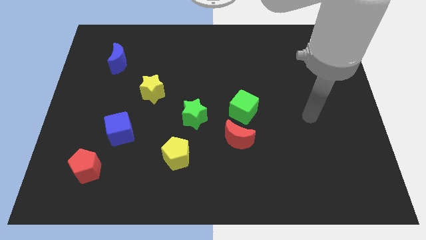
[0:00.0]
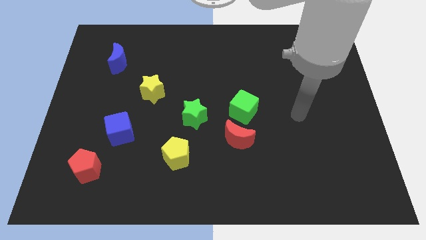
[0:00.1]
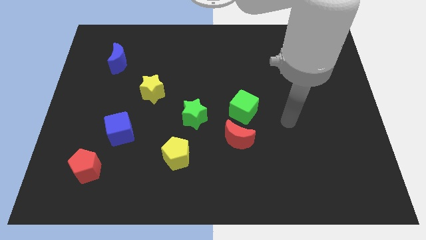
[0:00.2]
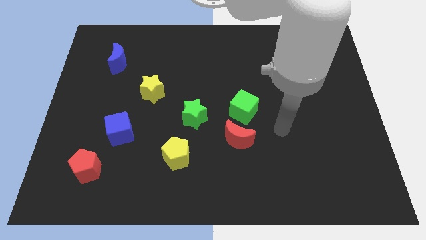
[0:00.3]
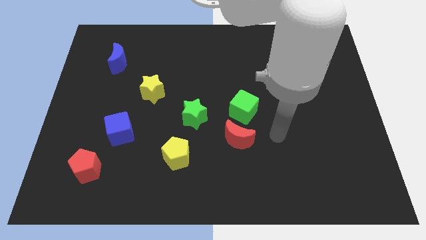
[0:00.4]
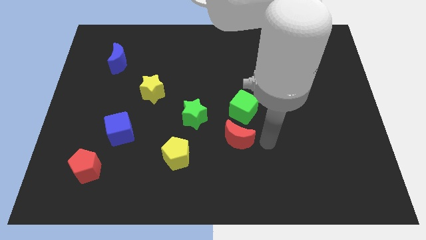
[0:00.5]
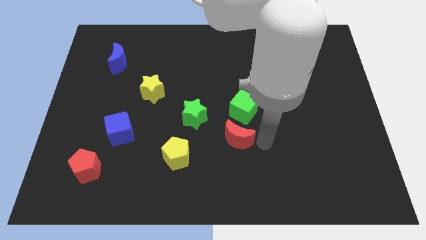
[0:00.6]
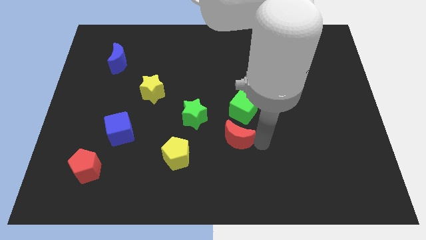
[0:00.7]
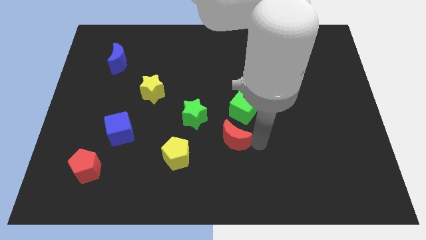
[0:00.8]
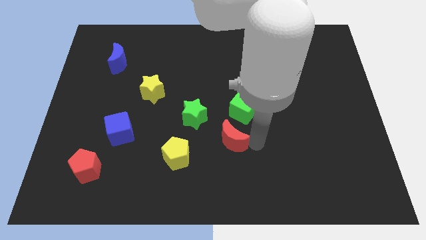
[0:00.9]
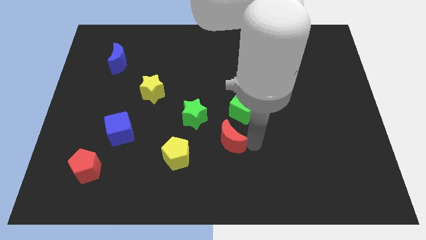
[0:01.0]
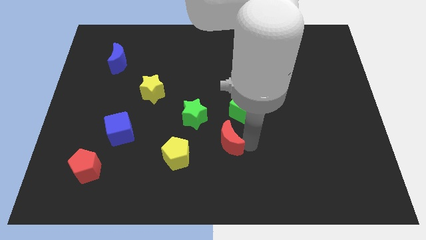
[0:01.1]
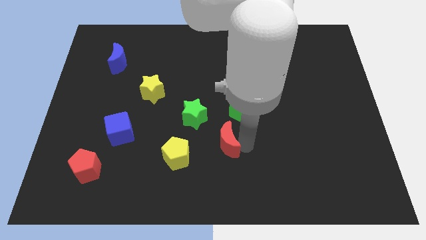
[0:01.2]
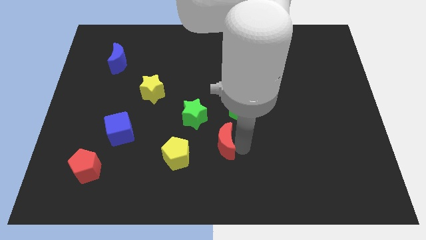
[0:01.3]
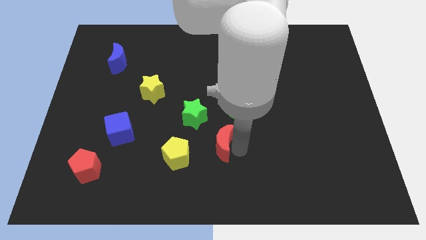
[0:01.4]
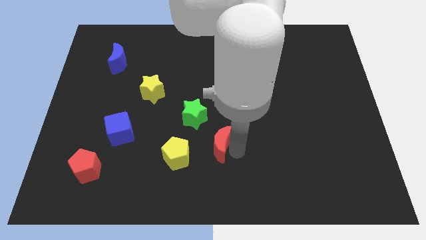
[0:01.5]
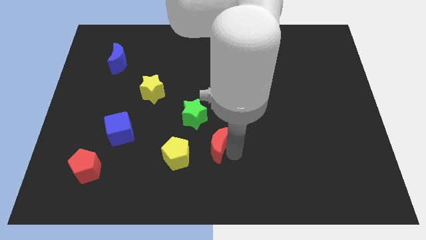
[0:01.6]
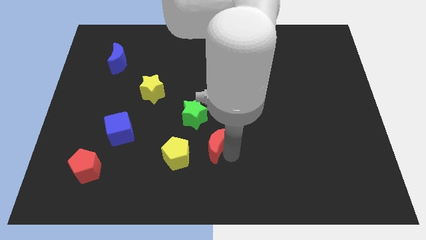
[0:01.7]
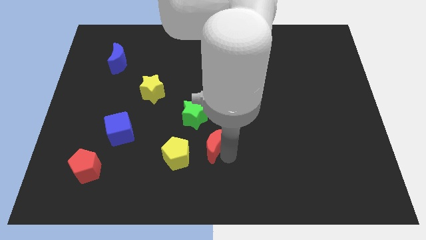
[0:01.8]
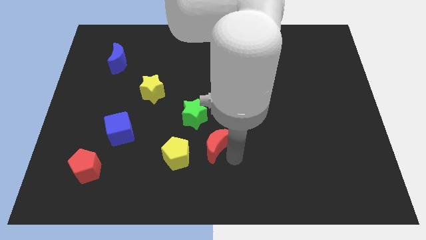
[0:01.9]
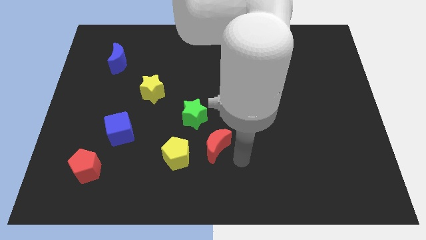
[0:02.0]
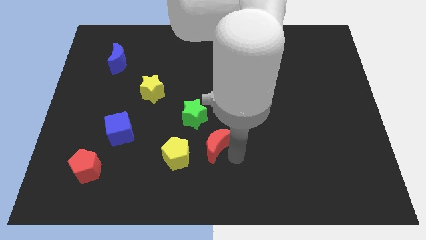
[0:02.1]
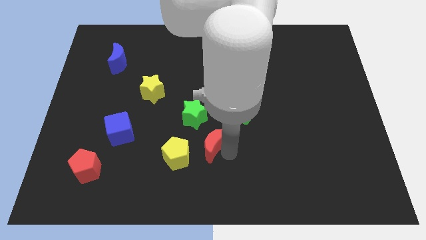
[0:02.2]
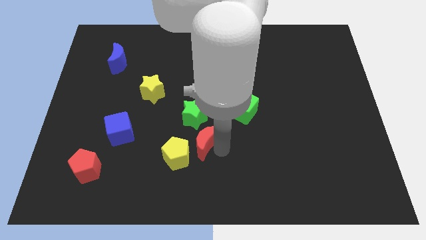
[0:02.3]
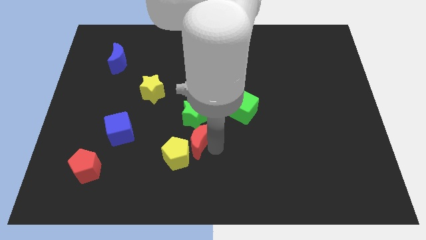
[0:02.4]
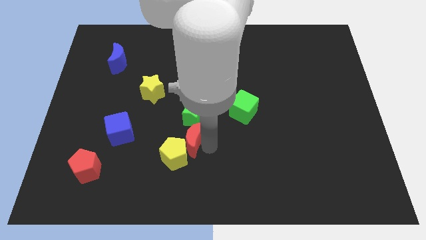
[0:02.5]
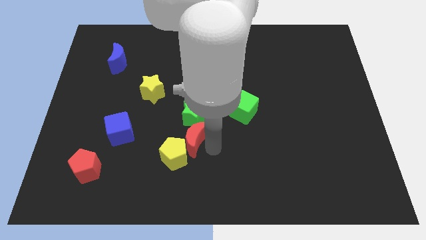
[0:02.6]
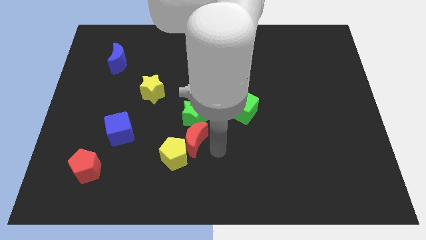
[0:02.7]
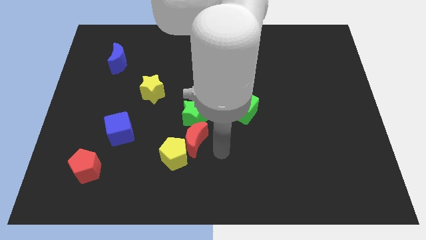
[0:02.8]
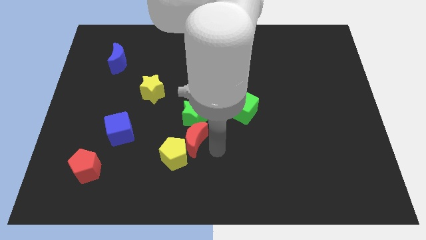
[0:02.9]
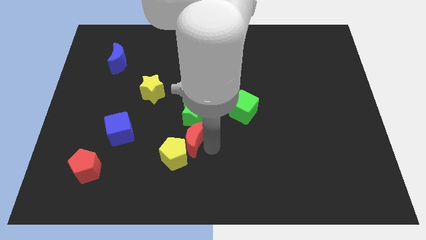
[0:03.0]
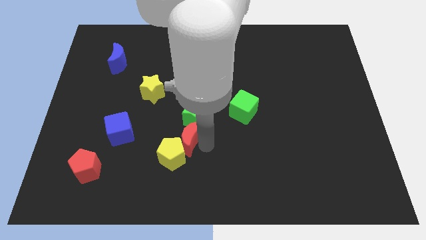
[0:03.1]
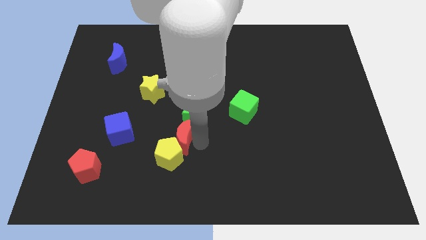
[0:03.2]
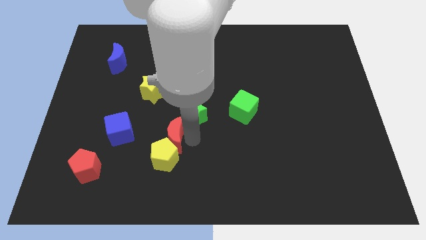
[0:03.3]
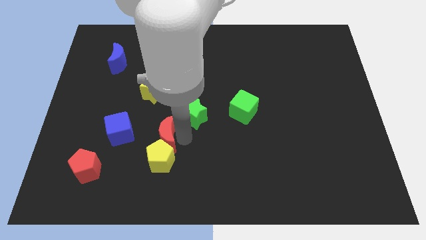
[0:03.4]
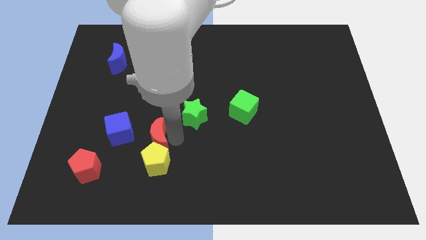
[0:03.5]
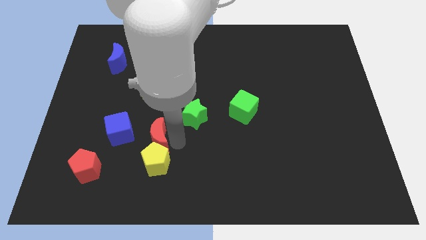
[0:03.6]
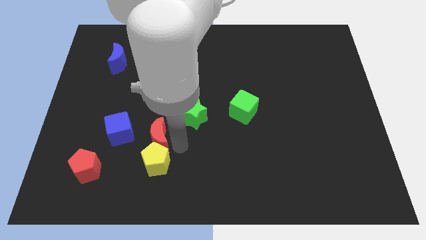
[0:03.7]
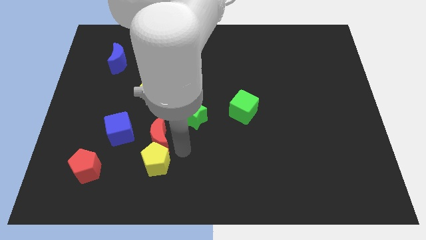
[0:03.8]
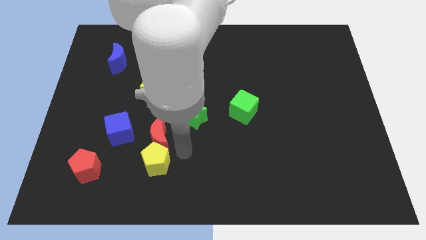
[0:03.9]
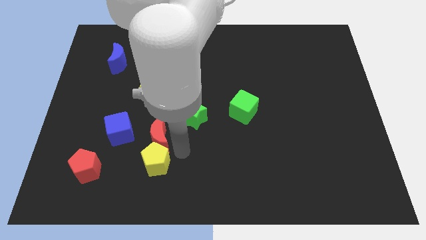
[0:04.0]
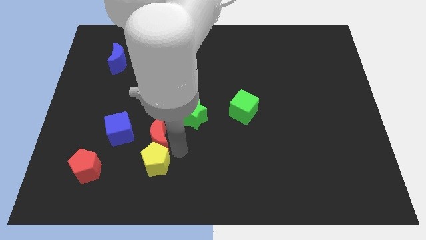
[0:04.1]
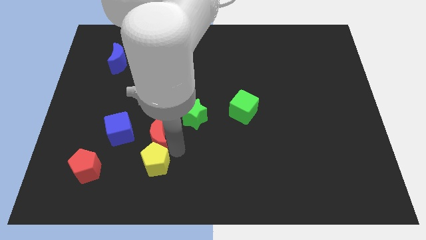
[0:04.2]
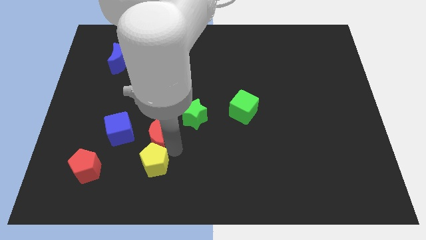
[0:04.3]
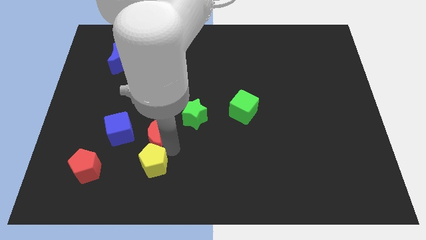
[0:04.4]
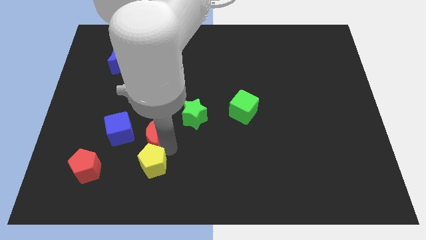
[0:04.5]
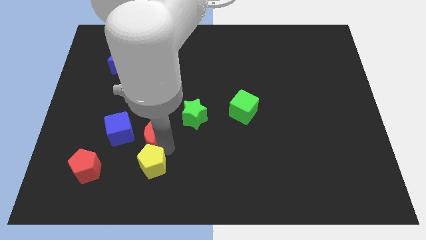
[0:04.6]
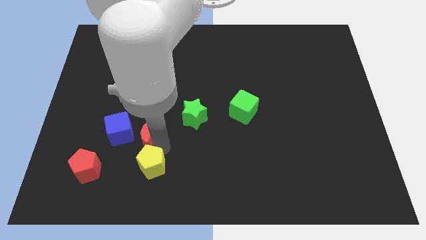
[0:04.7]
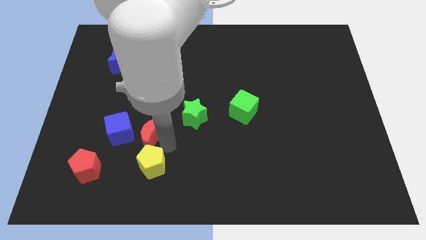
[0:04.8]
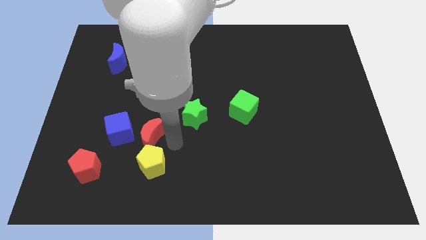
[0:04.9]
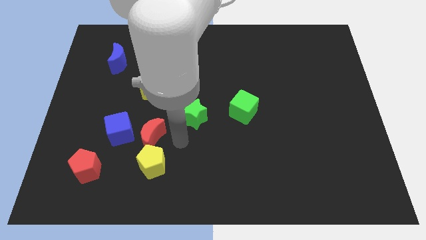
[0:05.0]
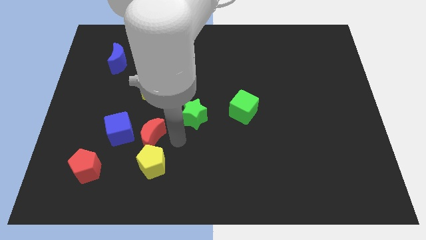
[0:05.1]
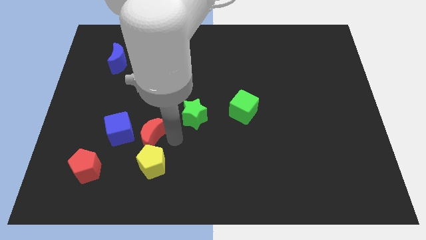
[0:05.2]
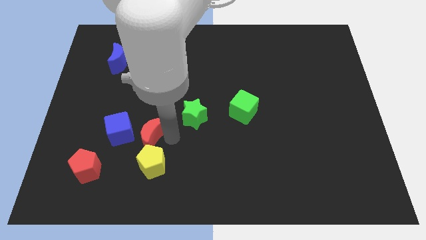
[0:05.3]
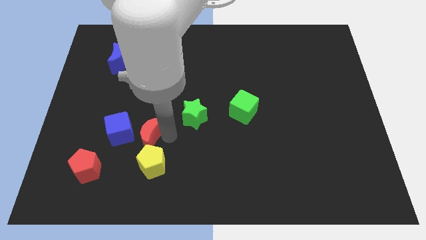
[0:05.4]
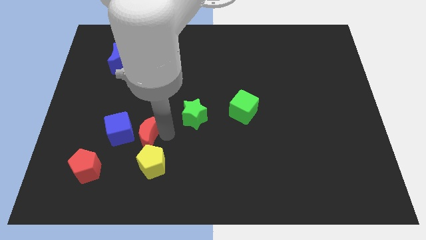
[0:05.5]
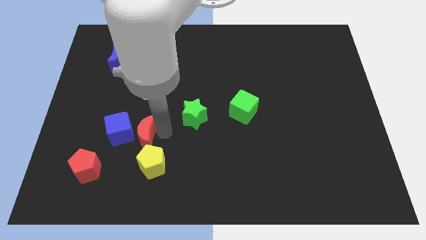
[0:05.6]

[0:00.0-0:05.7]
put the red moon next to the blue cube
